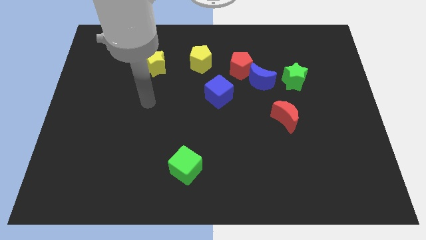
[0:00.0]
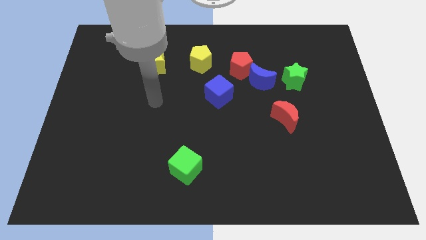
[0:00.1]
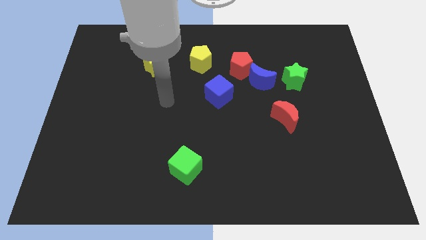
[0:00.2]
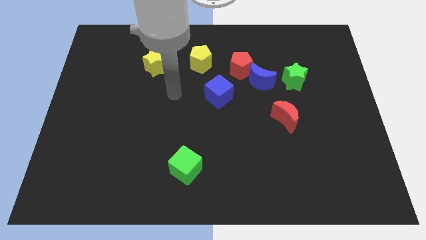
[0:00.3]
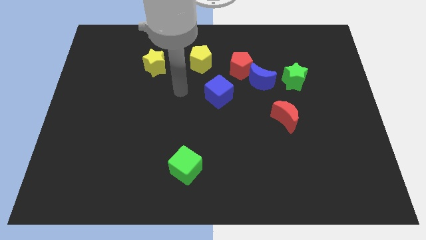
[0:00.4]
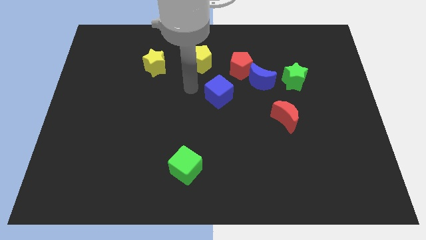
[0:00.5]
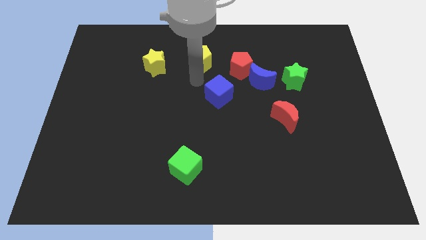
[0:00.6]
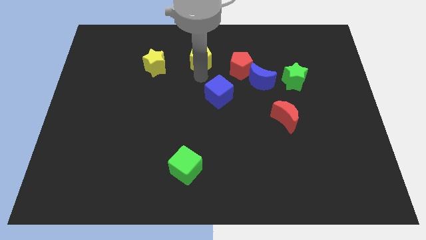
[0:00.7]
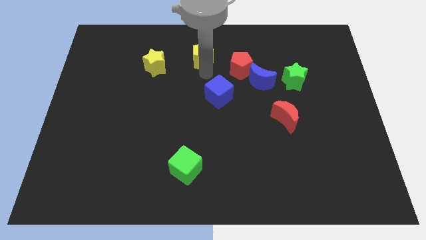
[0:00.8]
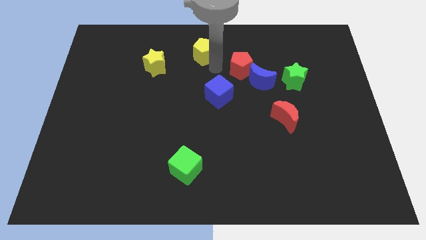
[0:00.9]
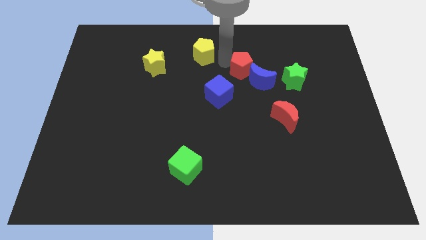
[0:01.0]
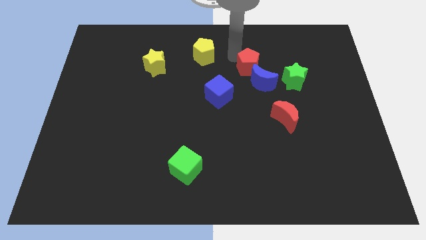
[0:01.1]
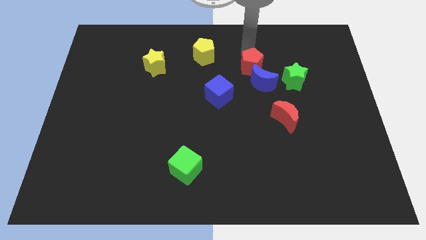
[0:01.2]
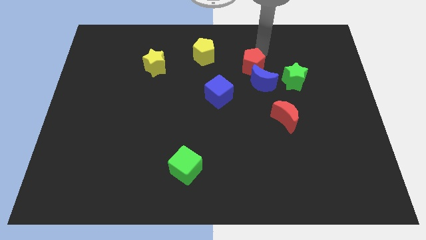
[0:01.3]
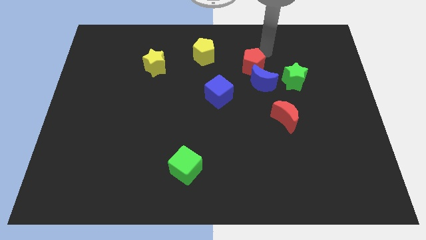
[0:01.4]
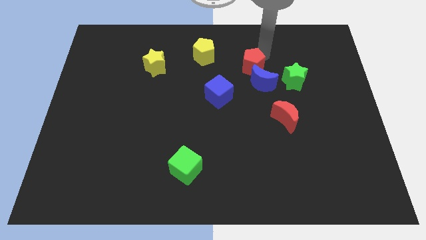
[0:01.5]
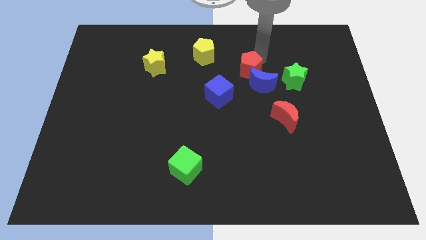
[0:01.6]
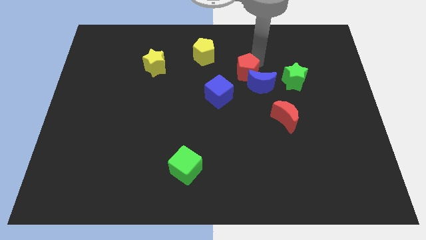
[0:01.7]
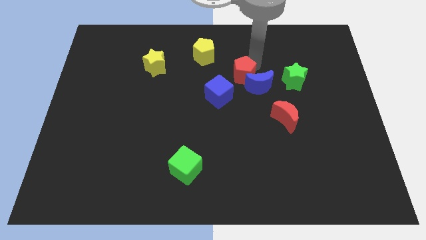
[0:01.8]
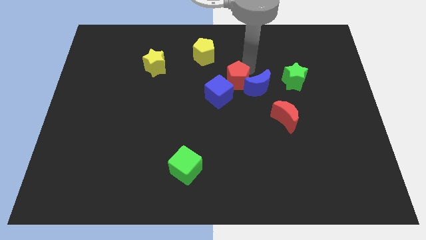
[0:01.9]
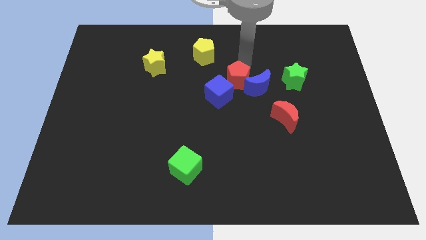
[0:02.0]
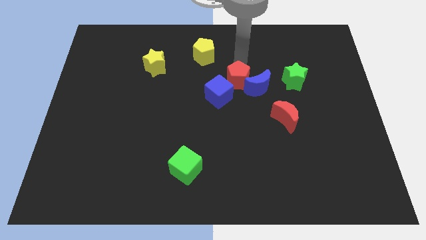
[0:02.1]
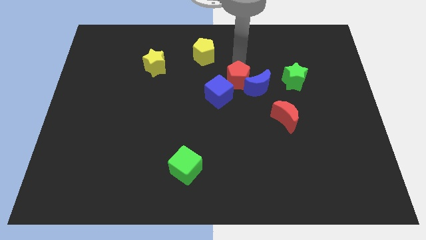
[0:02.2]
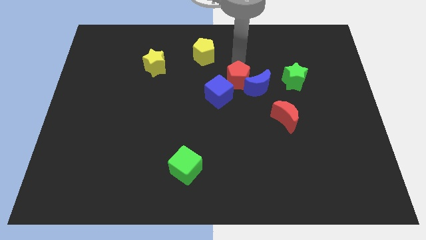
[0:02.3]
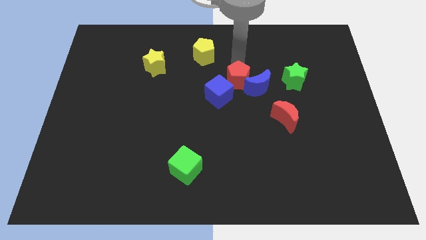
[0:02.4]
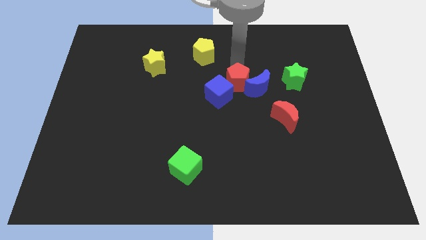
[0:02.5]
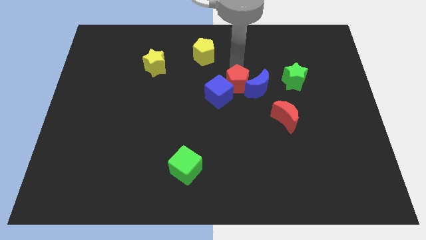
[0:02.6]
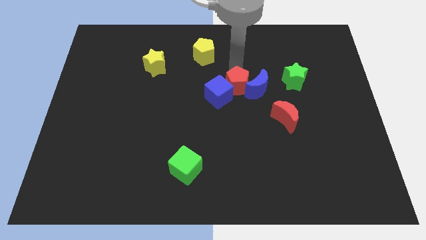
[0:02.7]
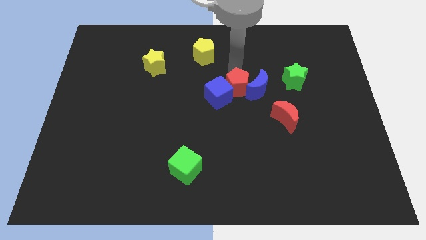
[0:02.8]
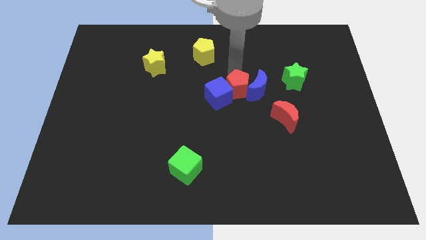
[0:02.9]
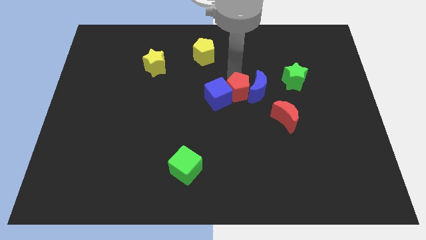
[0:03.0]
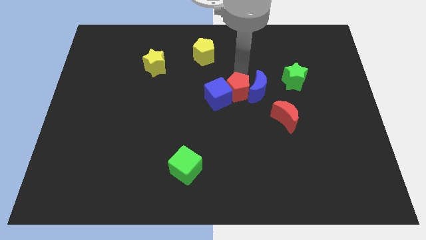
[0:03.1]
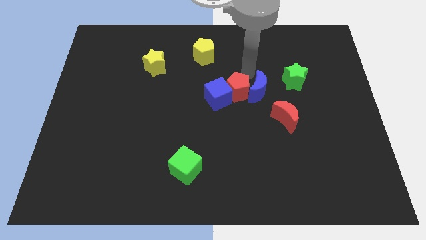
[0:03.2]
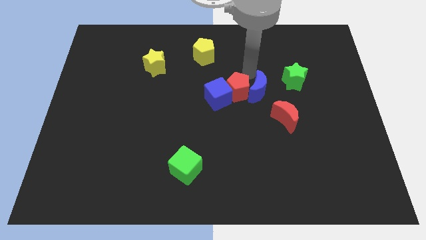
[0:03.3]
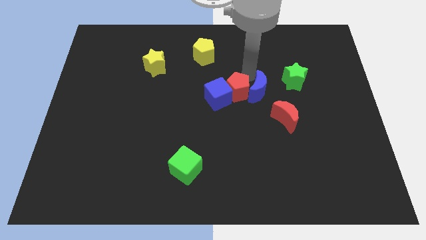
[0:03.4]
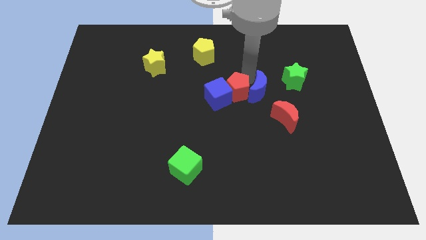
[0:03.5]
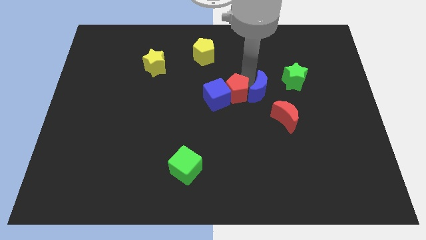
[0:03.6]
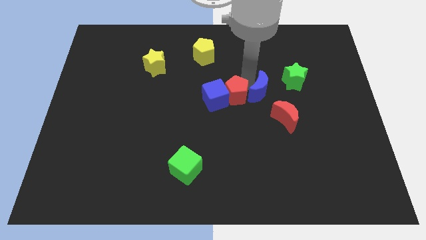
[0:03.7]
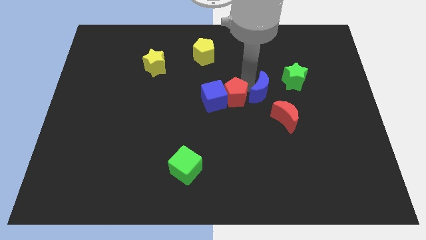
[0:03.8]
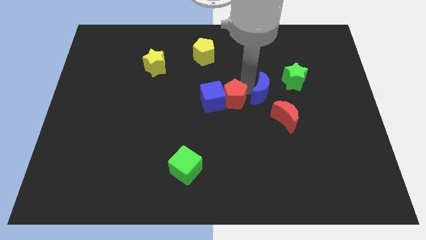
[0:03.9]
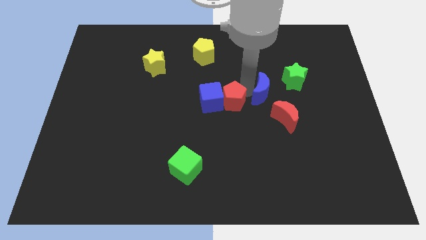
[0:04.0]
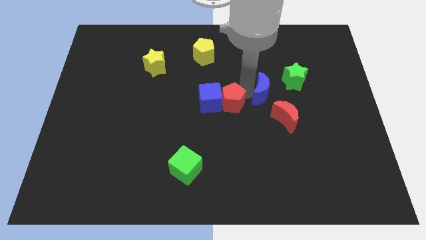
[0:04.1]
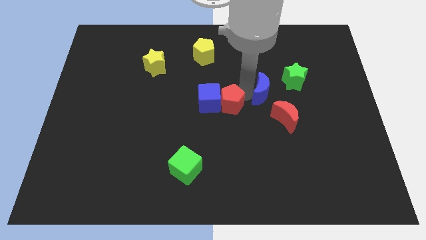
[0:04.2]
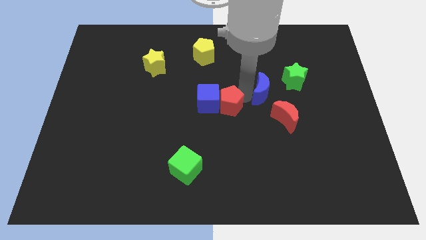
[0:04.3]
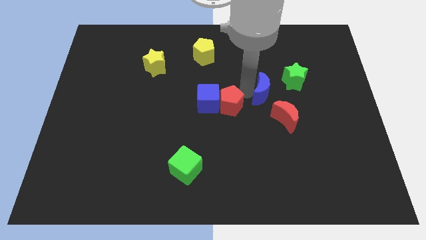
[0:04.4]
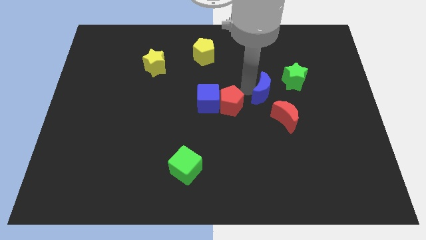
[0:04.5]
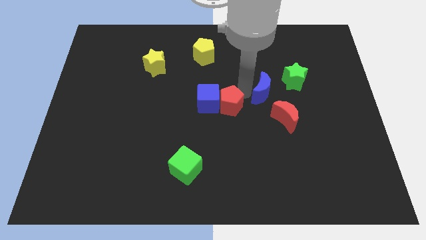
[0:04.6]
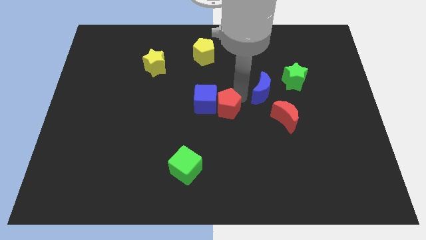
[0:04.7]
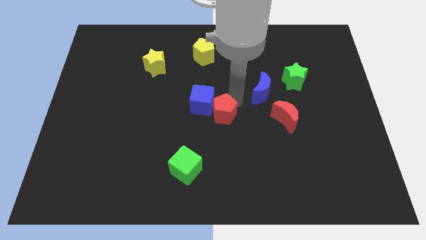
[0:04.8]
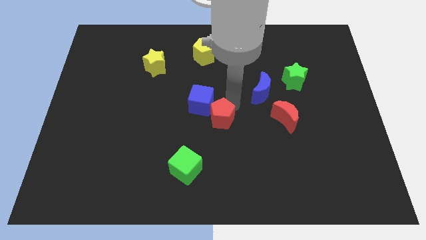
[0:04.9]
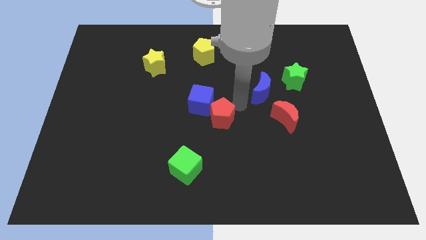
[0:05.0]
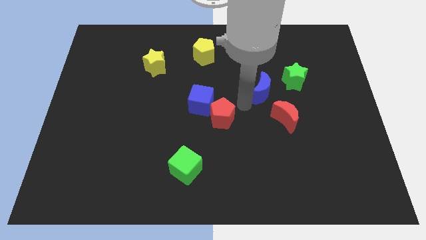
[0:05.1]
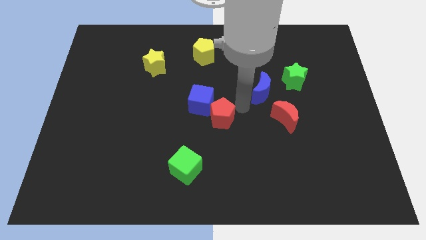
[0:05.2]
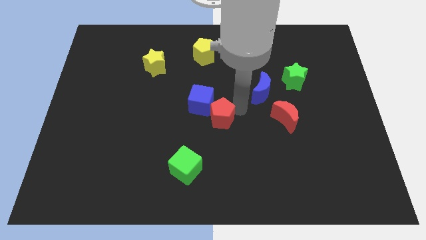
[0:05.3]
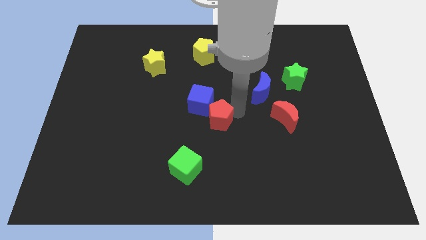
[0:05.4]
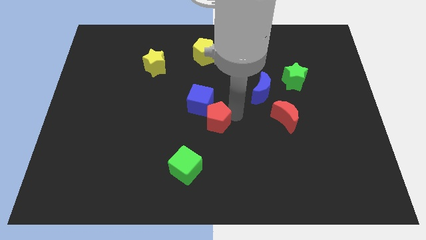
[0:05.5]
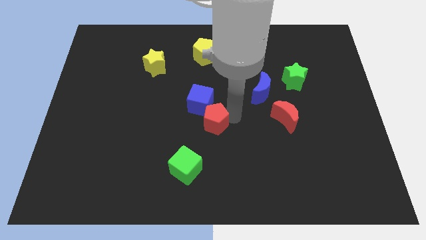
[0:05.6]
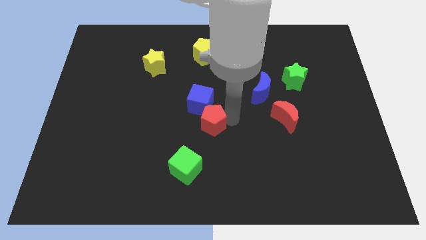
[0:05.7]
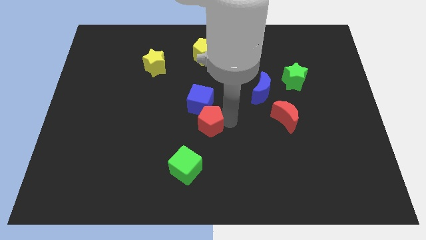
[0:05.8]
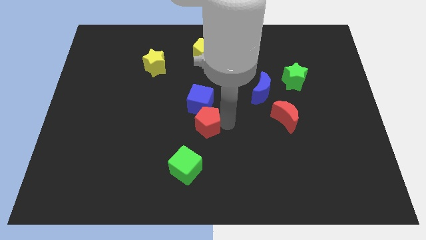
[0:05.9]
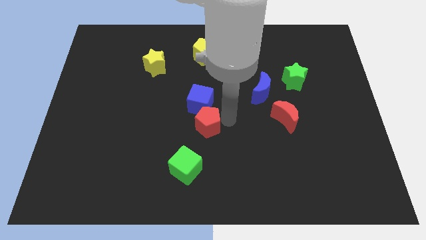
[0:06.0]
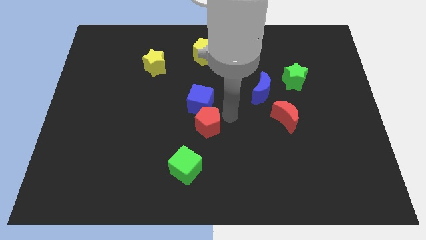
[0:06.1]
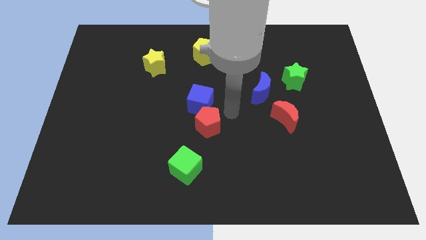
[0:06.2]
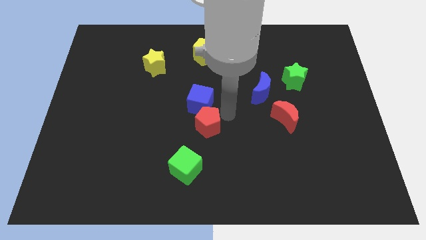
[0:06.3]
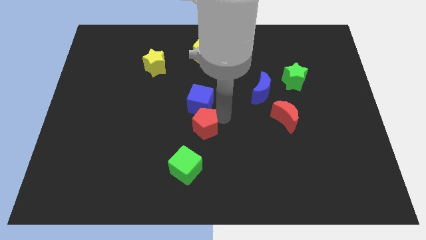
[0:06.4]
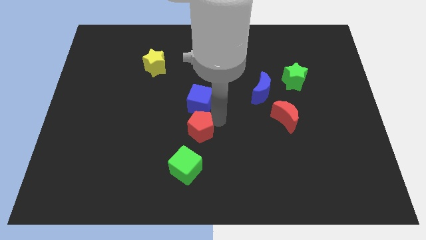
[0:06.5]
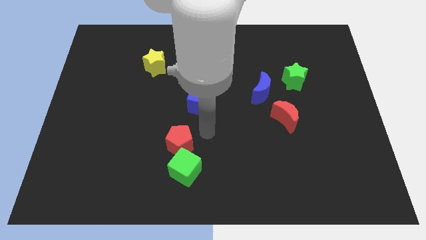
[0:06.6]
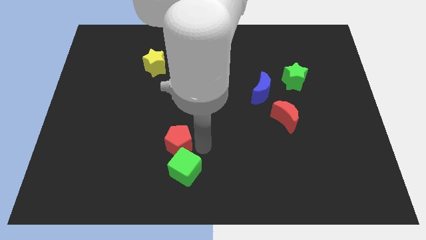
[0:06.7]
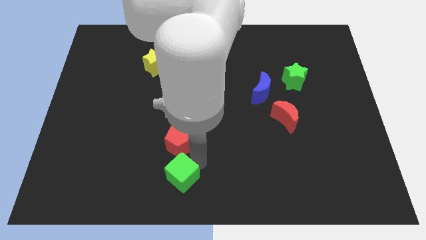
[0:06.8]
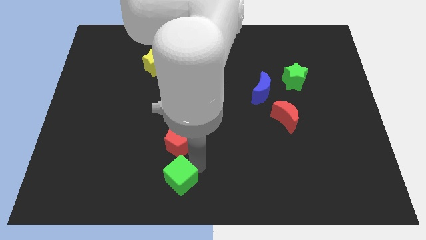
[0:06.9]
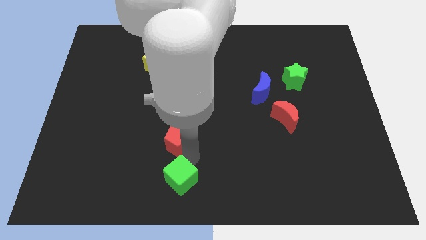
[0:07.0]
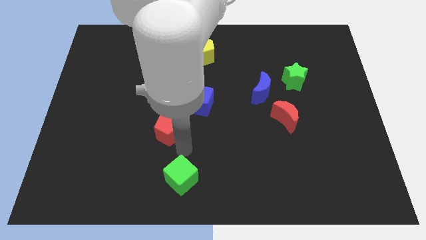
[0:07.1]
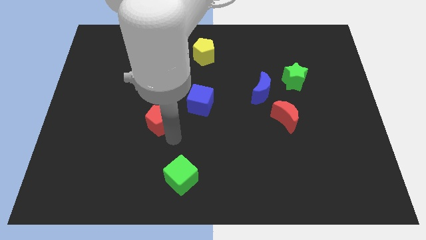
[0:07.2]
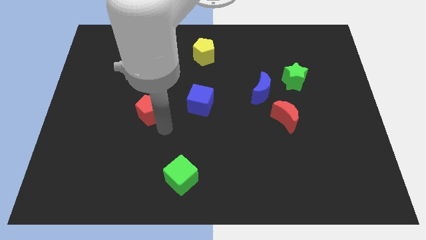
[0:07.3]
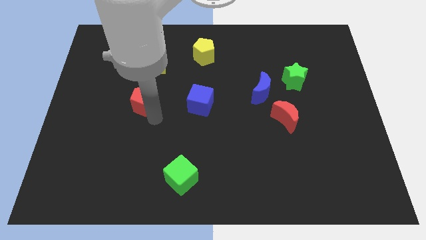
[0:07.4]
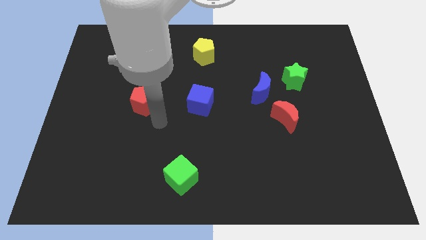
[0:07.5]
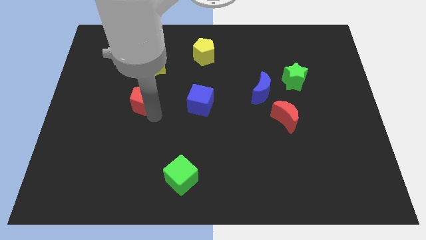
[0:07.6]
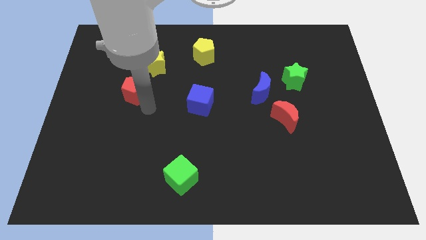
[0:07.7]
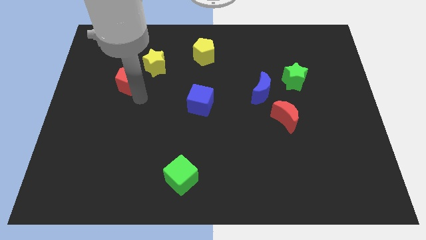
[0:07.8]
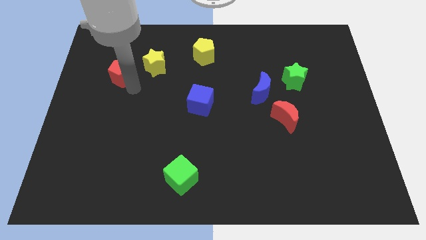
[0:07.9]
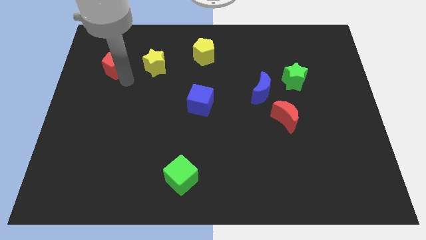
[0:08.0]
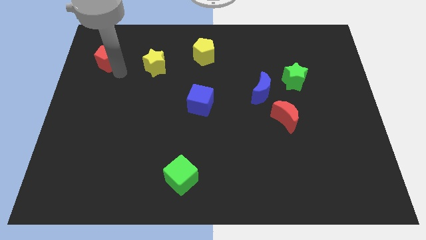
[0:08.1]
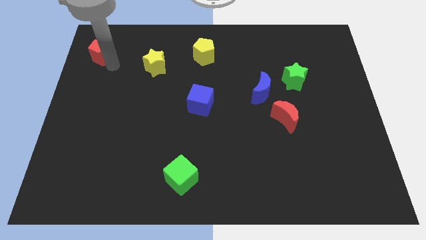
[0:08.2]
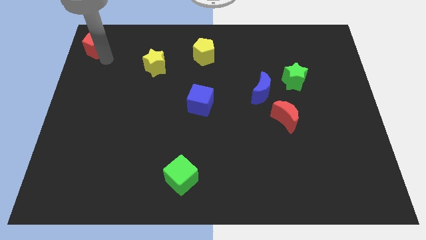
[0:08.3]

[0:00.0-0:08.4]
move the red pentagon to the top left corner
